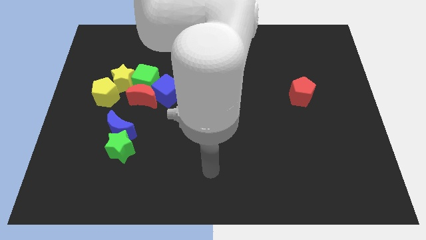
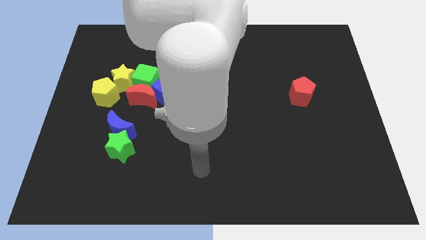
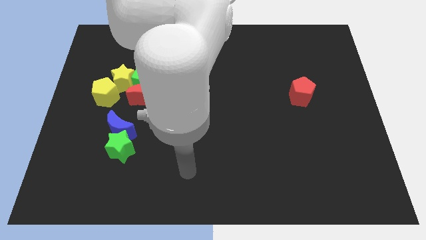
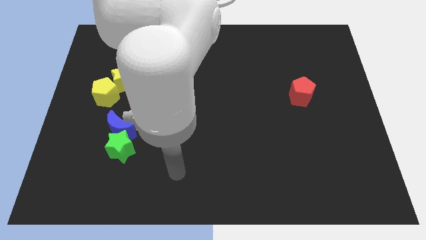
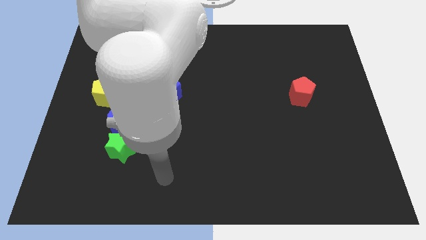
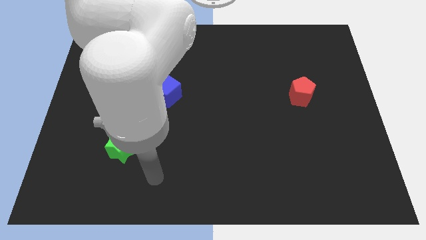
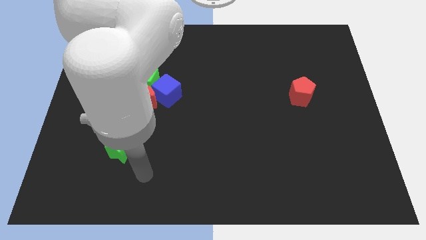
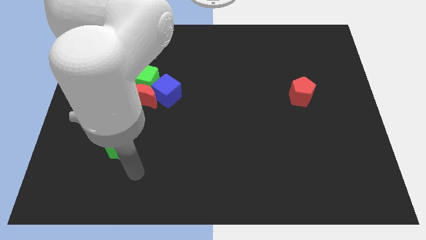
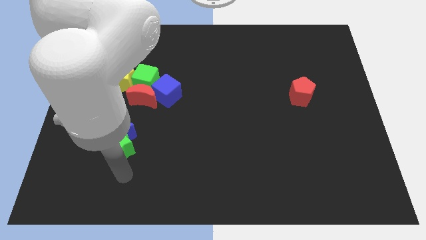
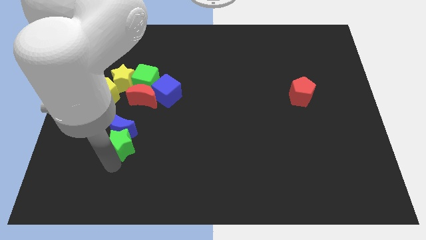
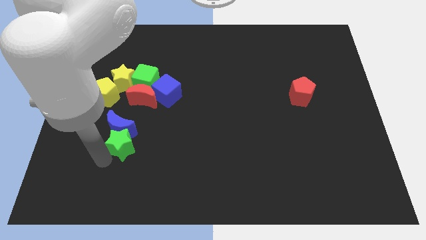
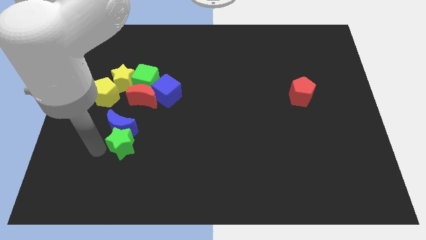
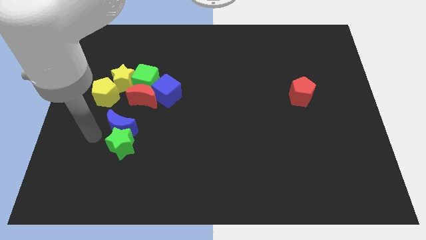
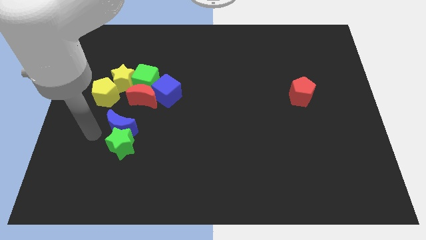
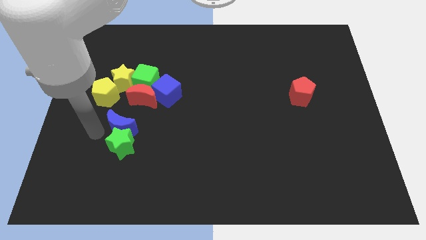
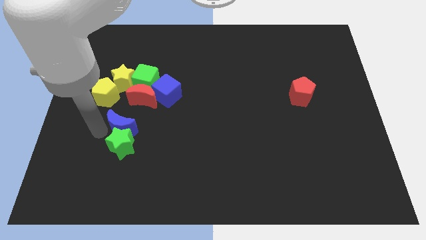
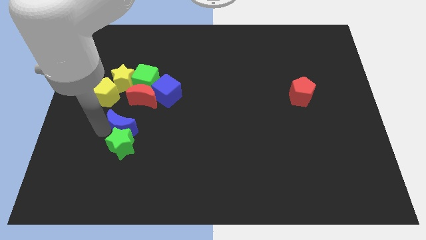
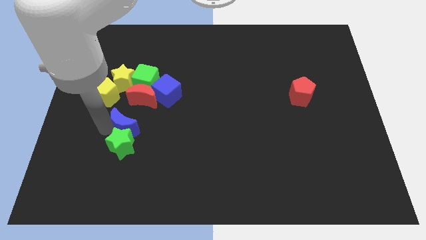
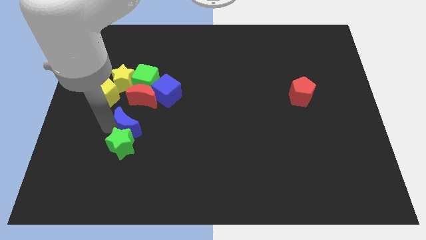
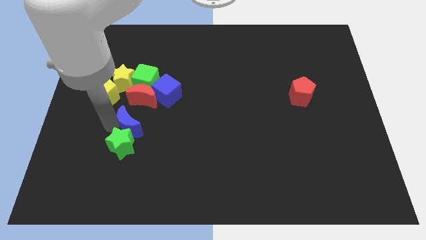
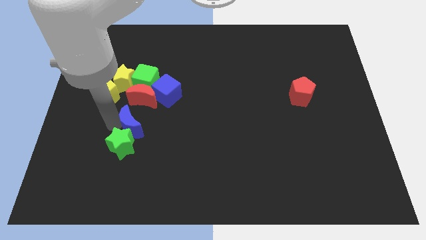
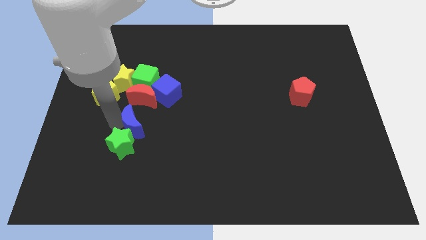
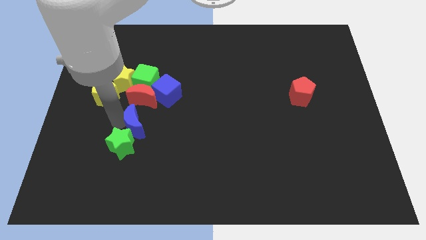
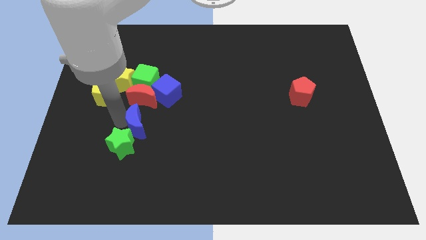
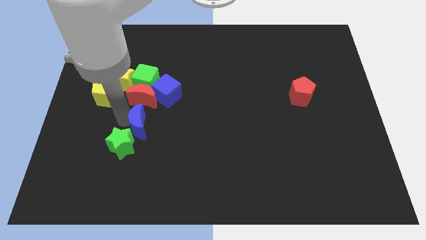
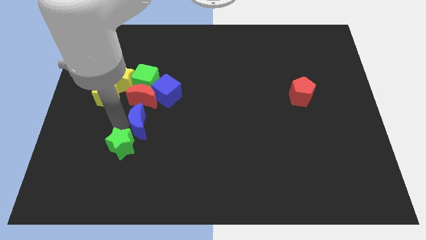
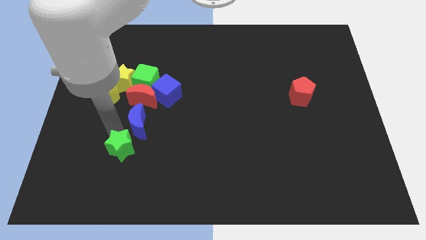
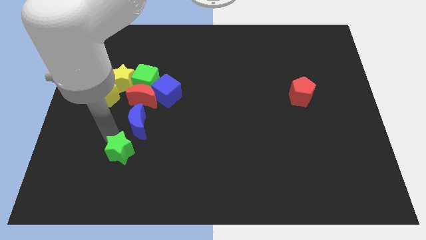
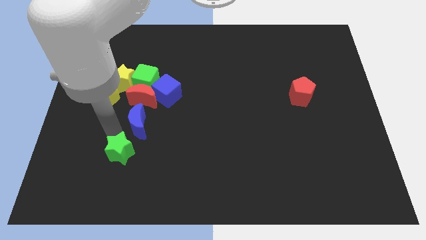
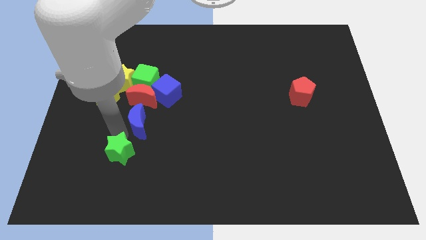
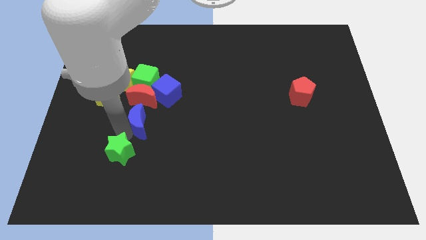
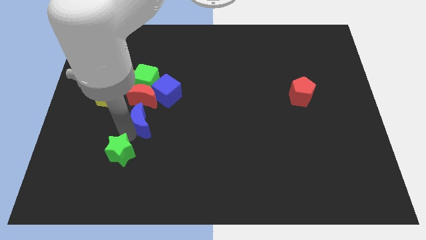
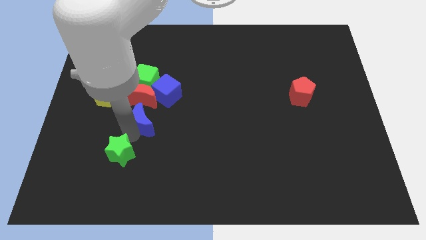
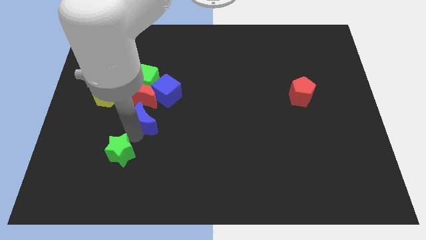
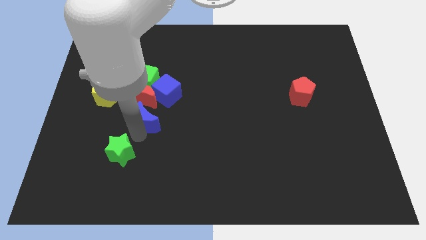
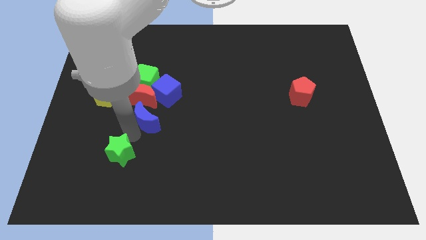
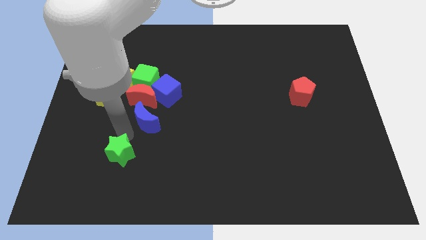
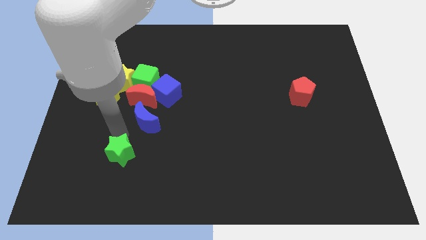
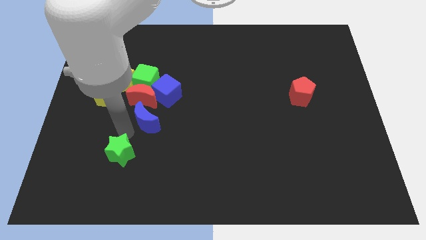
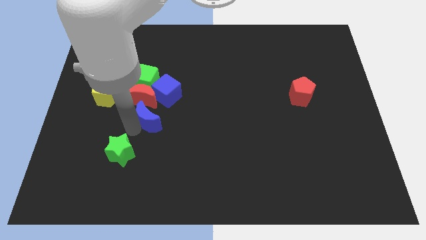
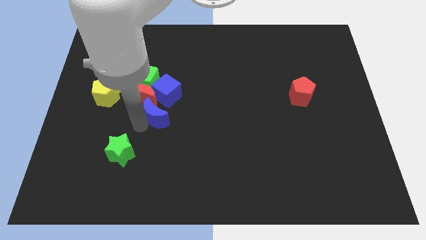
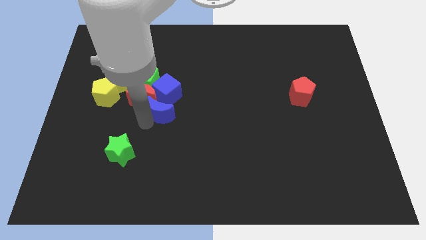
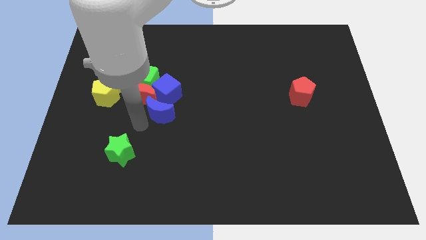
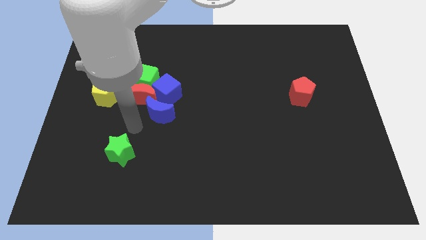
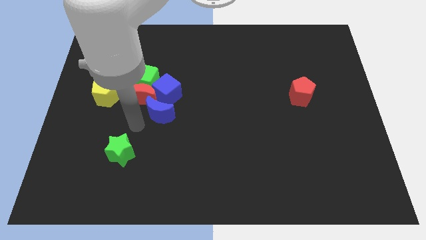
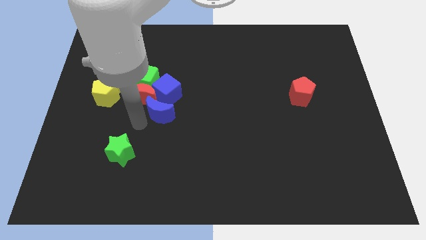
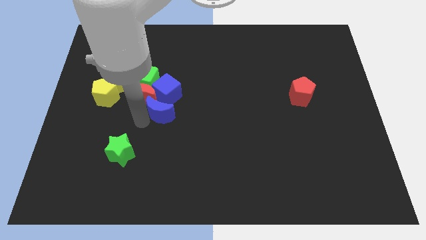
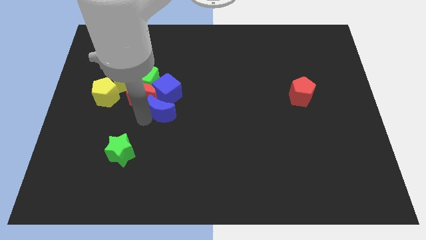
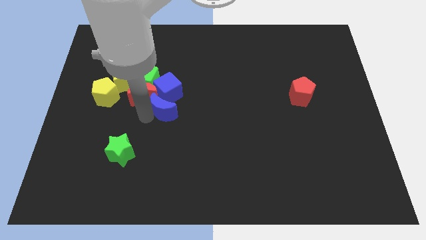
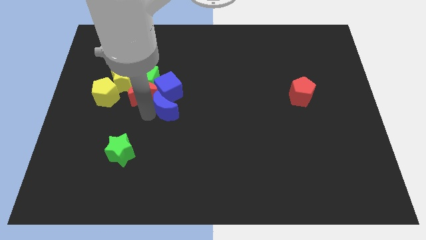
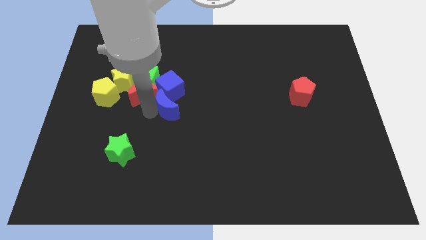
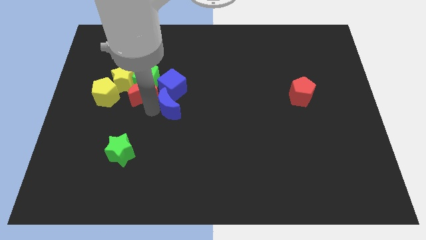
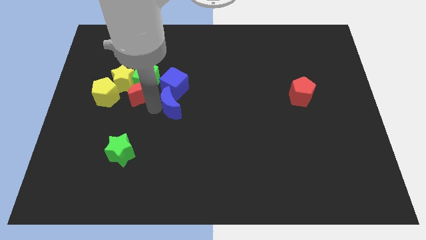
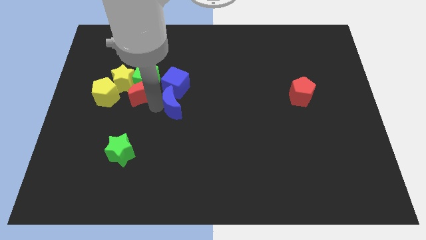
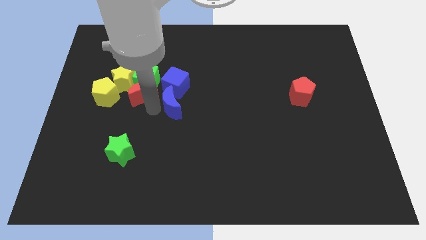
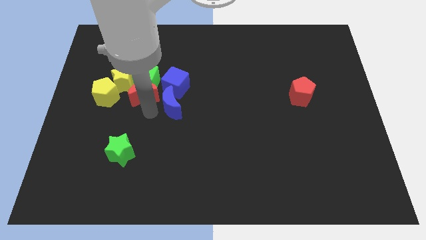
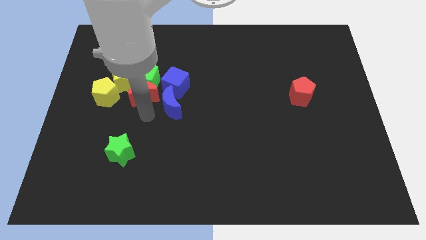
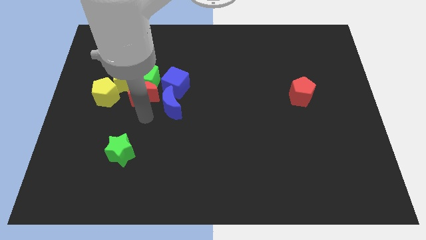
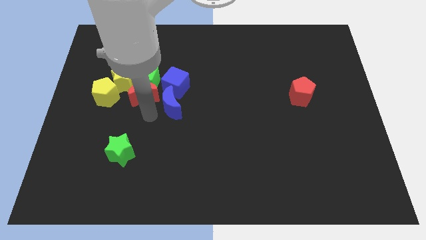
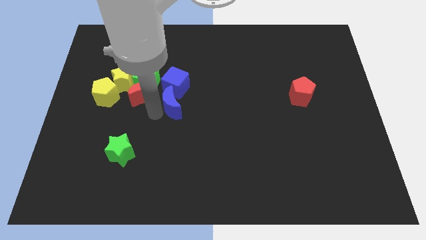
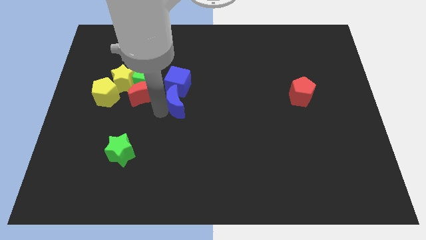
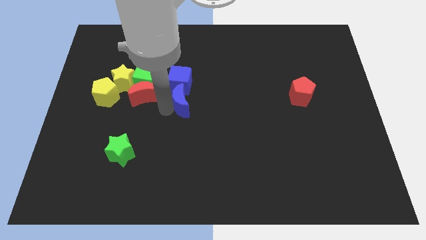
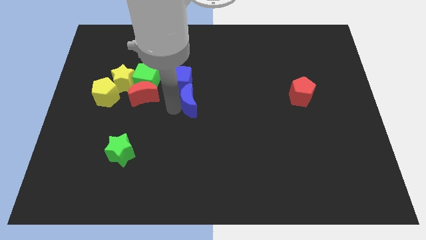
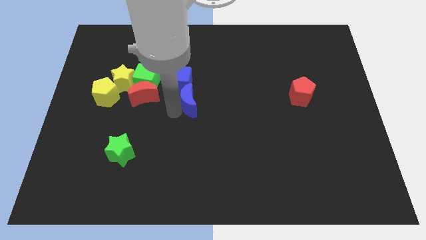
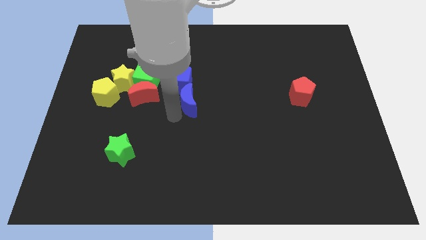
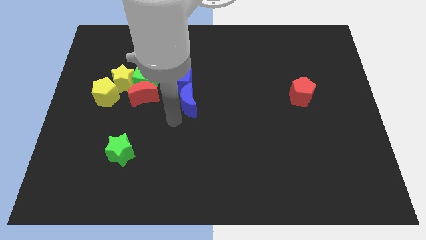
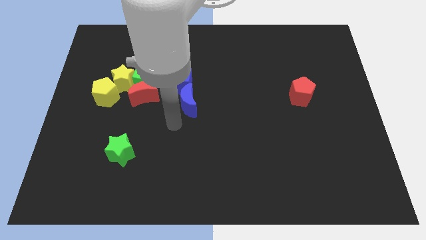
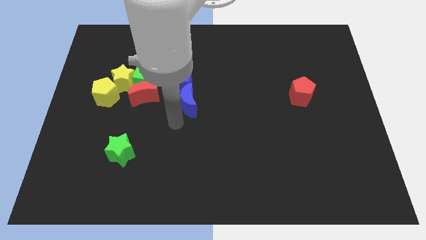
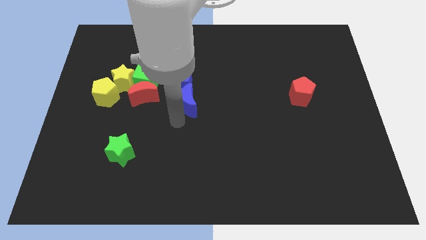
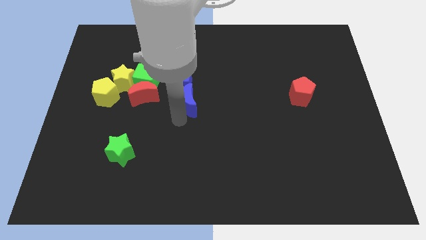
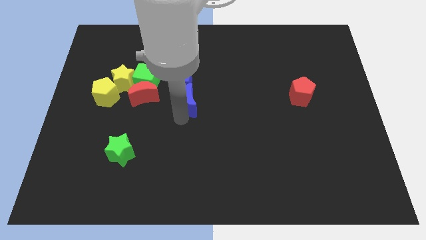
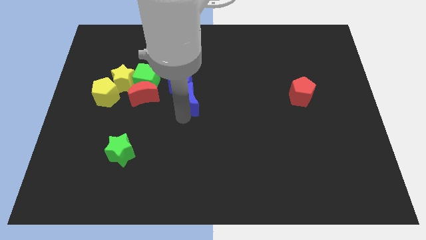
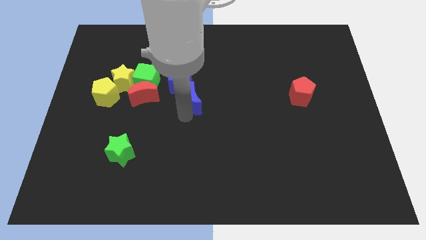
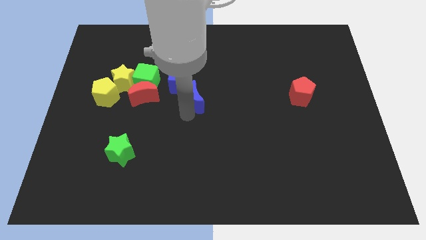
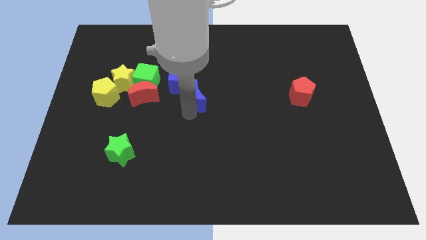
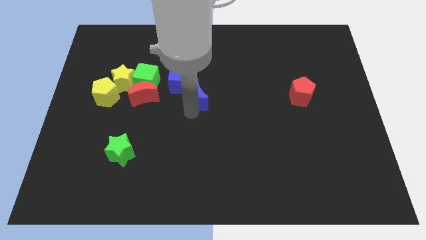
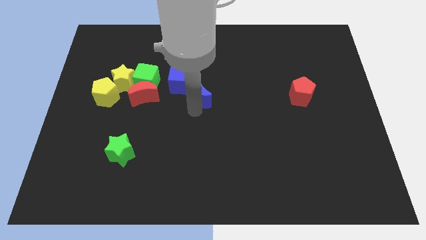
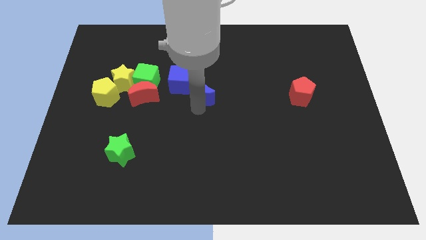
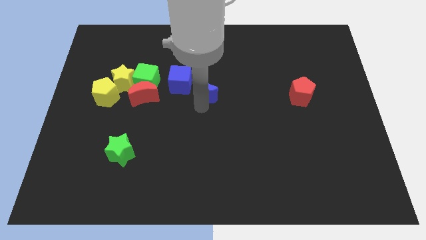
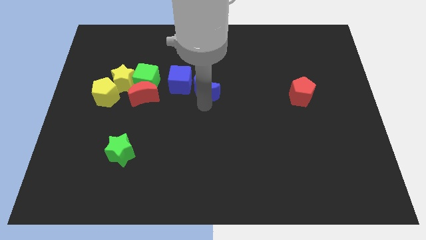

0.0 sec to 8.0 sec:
move the blue moon diagonally upwards and to the right
